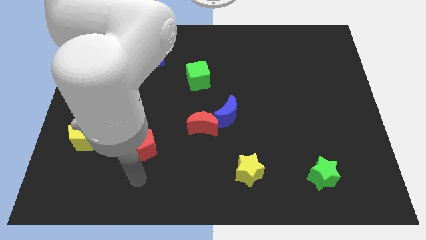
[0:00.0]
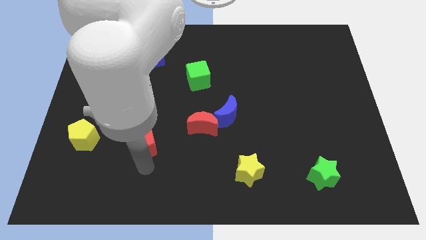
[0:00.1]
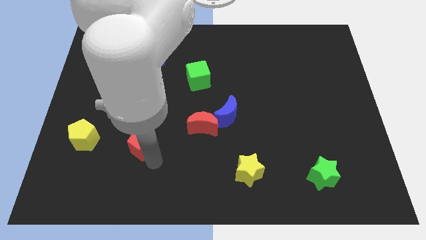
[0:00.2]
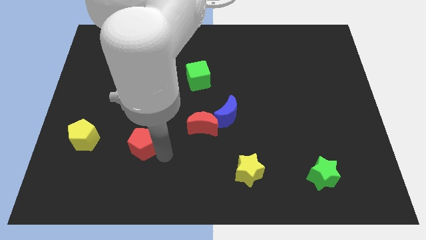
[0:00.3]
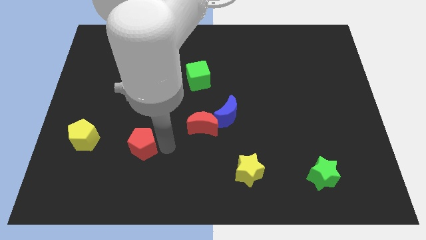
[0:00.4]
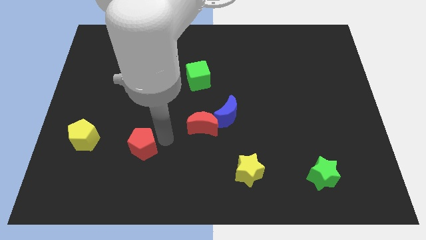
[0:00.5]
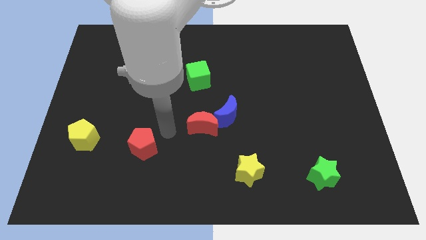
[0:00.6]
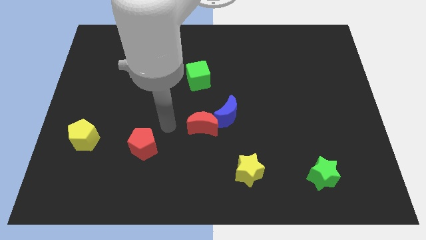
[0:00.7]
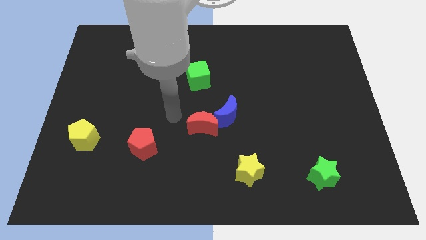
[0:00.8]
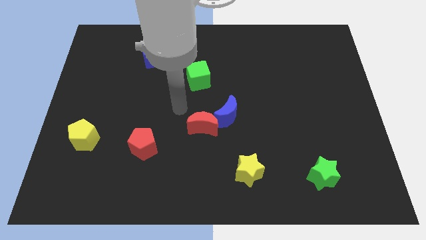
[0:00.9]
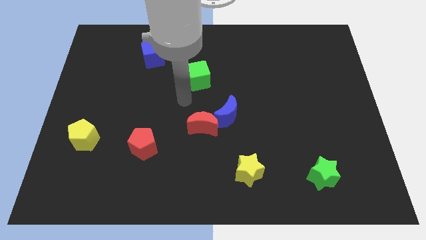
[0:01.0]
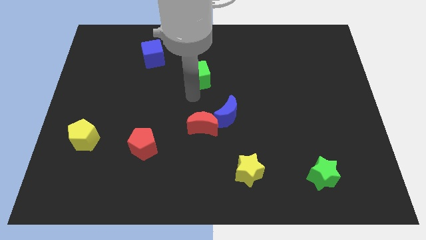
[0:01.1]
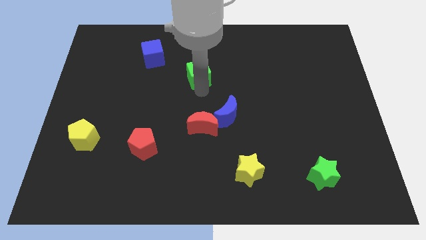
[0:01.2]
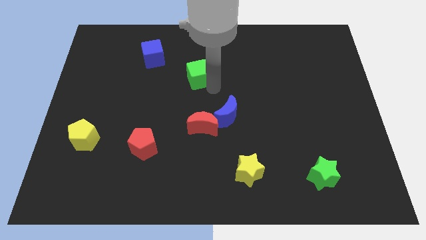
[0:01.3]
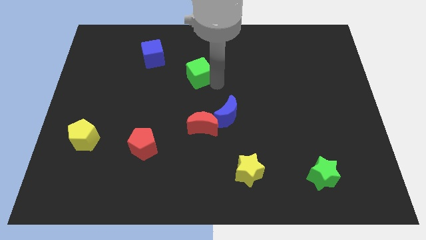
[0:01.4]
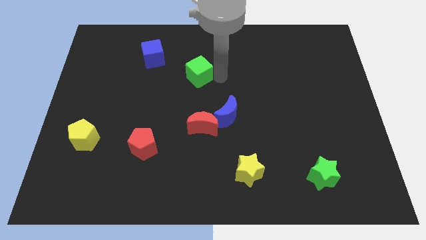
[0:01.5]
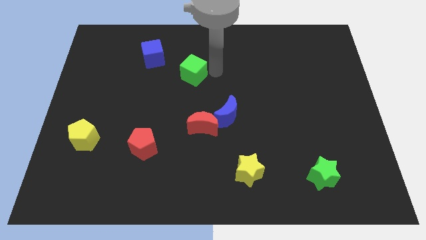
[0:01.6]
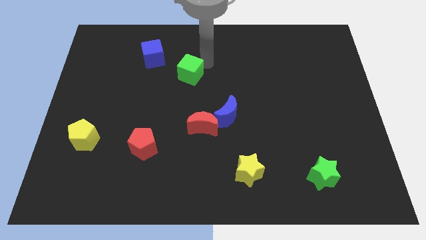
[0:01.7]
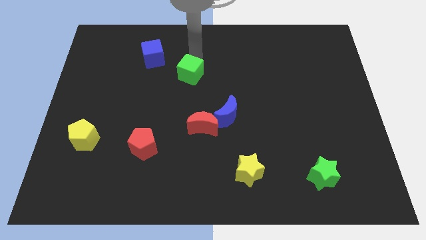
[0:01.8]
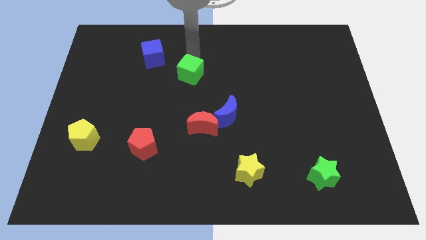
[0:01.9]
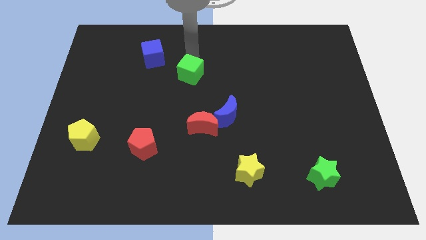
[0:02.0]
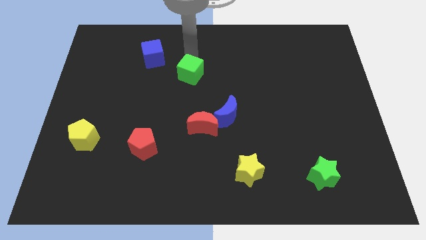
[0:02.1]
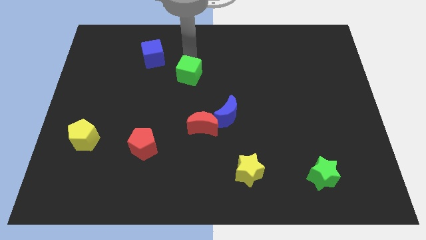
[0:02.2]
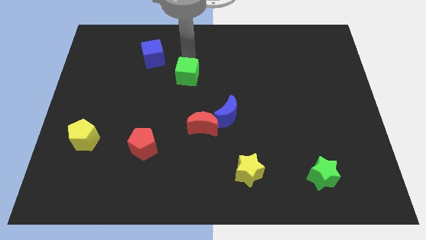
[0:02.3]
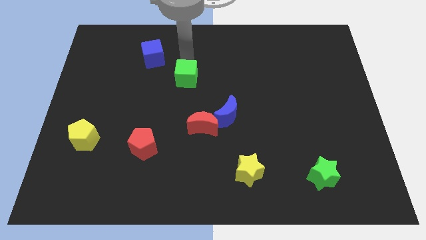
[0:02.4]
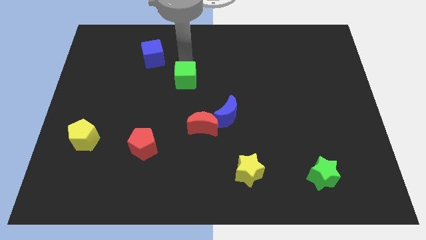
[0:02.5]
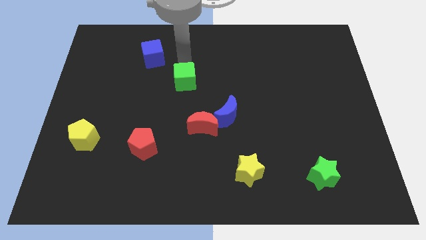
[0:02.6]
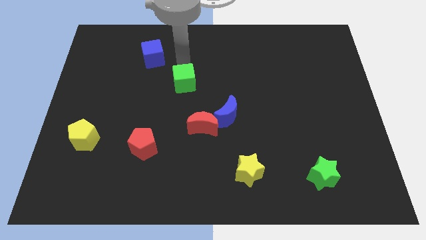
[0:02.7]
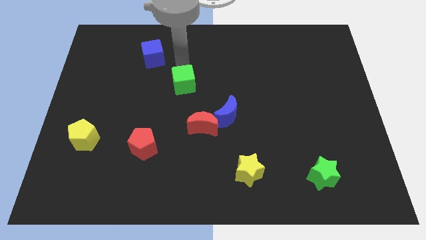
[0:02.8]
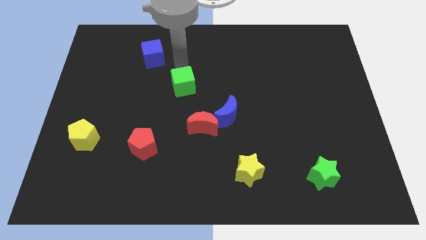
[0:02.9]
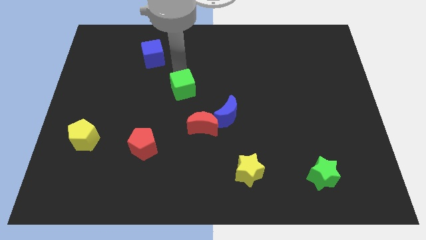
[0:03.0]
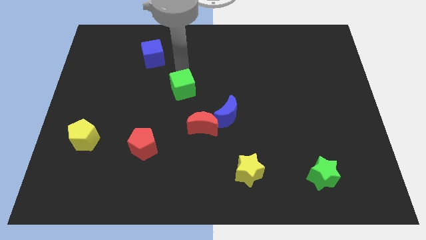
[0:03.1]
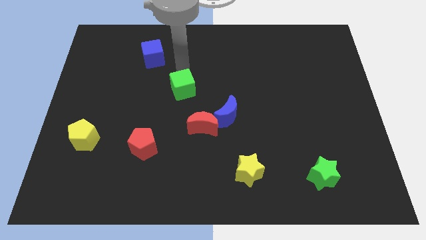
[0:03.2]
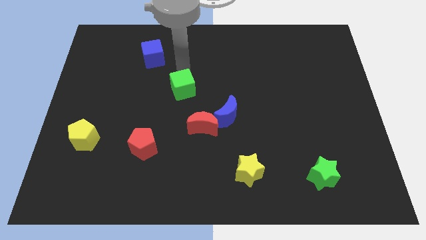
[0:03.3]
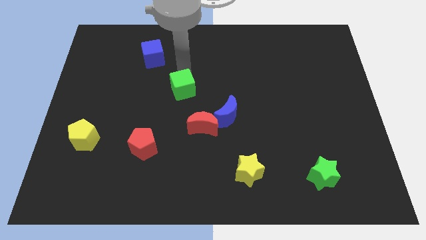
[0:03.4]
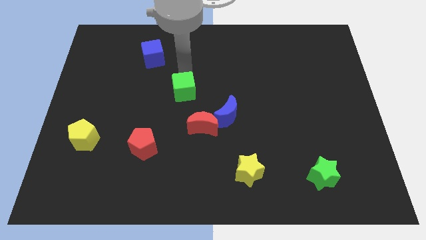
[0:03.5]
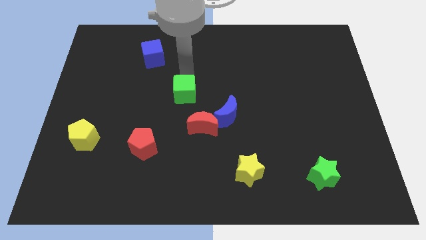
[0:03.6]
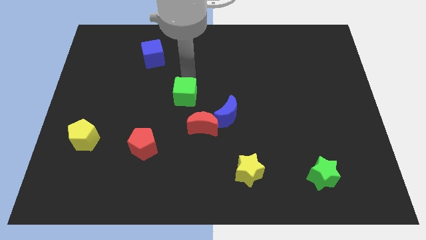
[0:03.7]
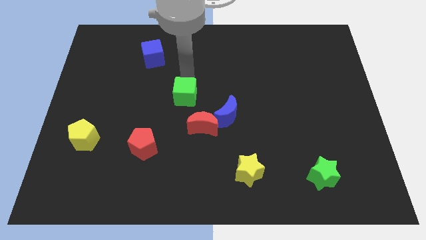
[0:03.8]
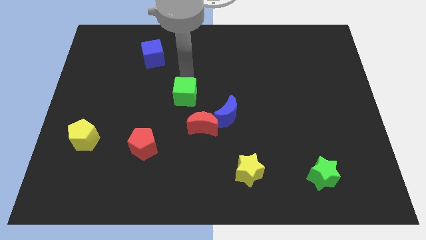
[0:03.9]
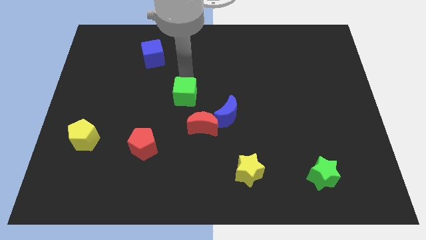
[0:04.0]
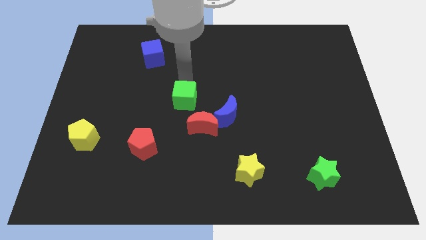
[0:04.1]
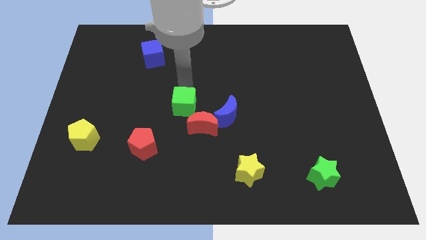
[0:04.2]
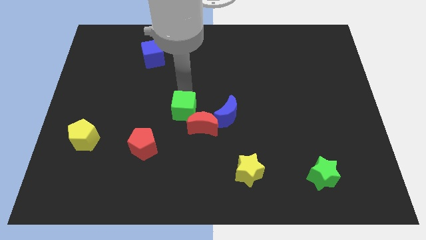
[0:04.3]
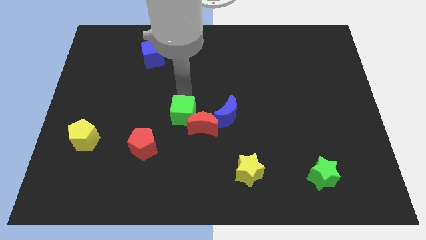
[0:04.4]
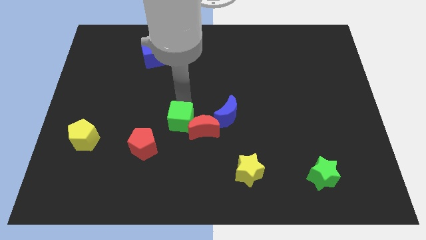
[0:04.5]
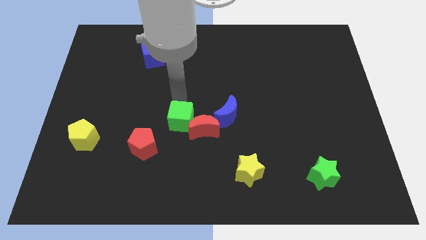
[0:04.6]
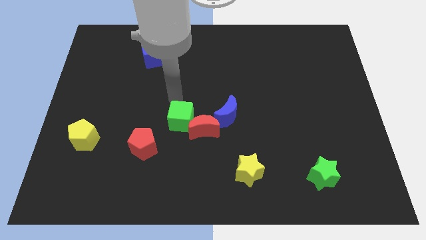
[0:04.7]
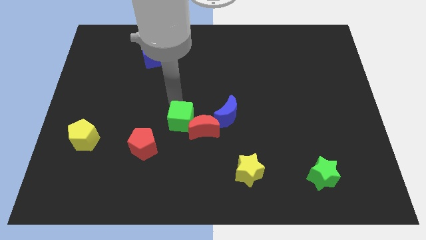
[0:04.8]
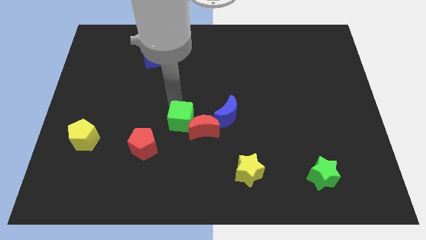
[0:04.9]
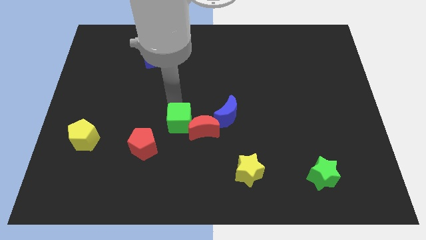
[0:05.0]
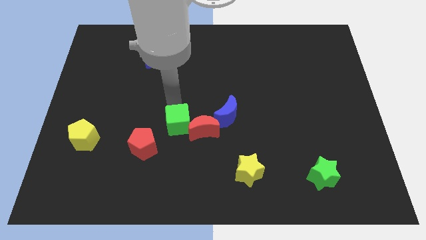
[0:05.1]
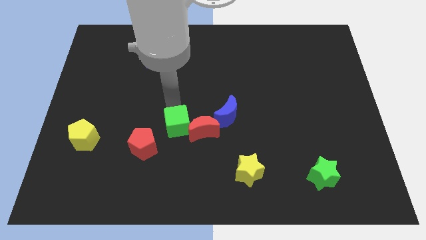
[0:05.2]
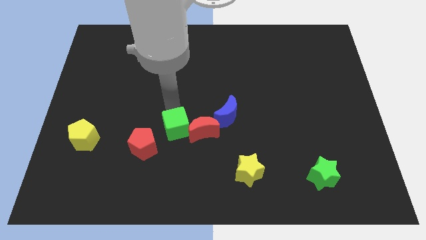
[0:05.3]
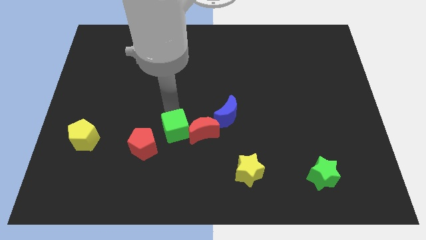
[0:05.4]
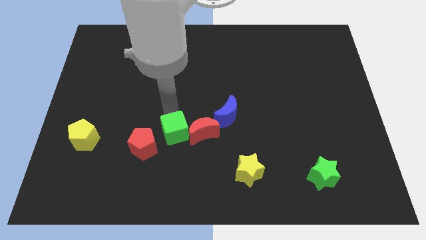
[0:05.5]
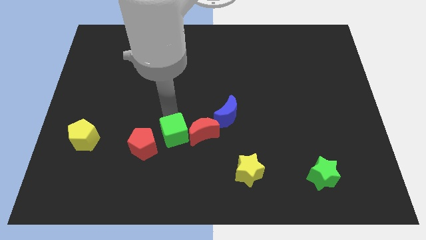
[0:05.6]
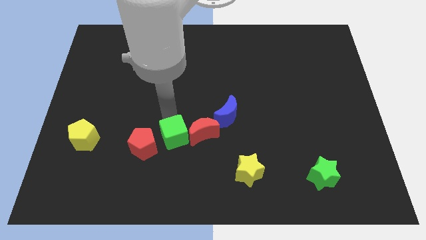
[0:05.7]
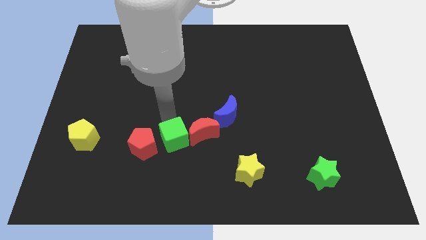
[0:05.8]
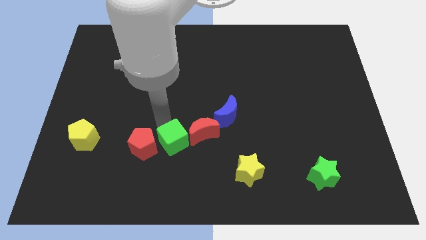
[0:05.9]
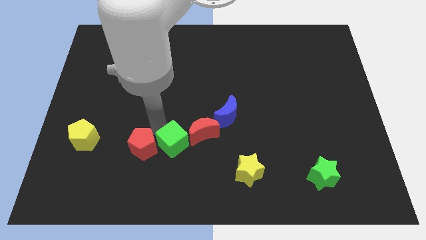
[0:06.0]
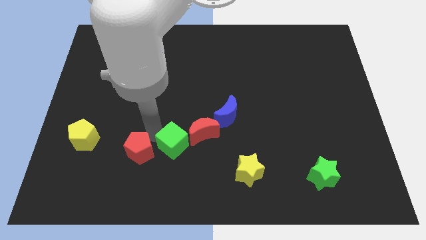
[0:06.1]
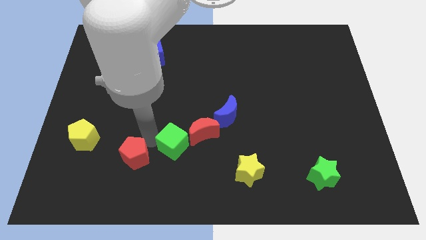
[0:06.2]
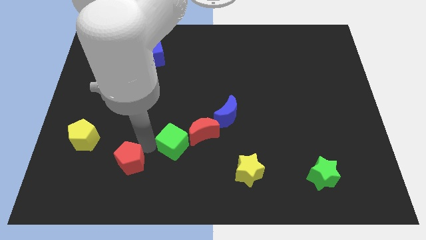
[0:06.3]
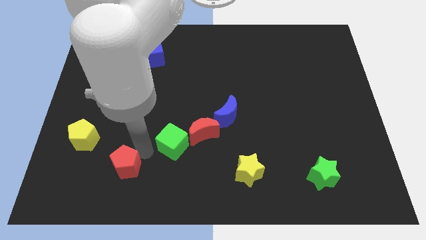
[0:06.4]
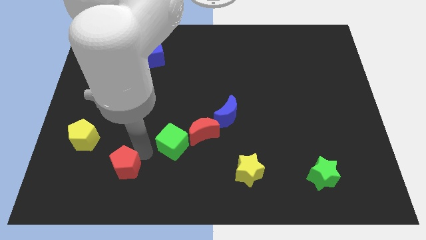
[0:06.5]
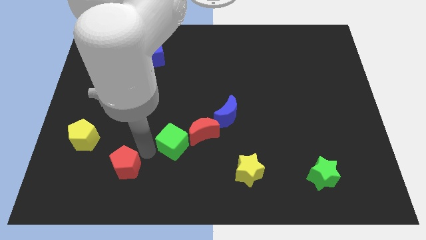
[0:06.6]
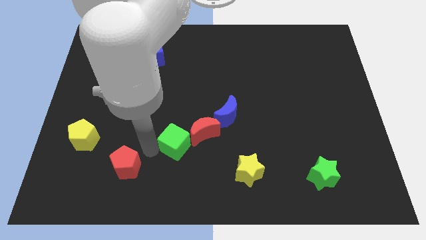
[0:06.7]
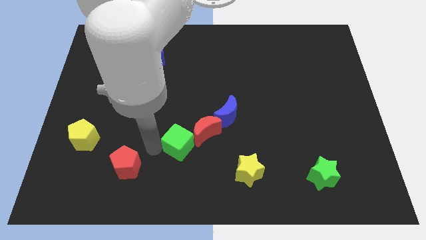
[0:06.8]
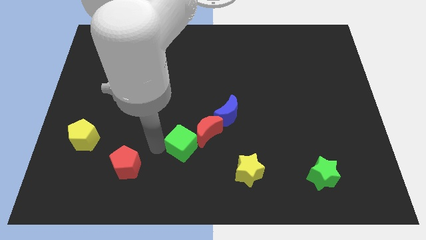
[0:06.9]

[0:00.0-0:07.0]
move the green cube to the bottom left side of the blue moon

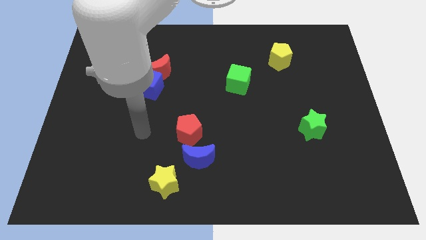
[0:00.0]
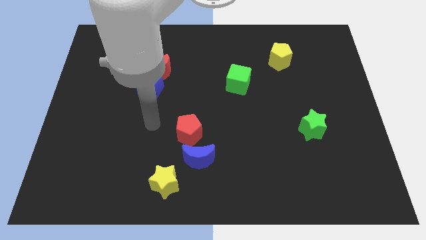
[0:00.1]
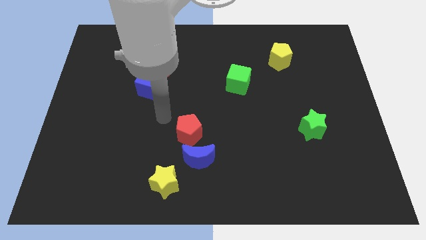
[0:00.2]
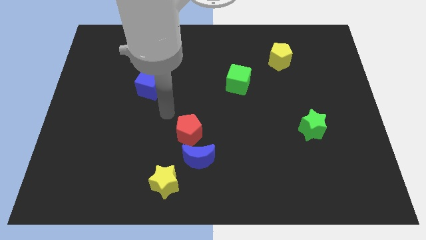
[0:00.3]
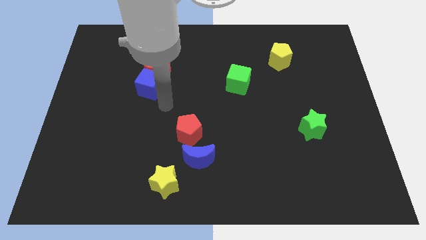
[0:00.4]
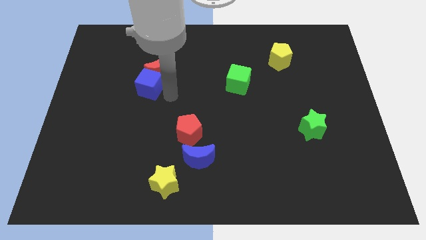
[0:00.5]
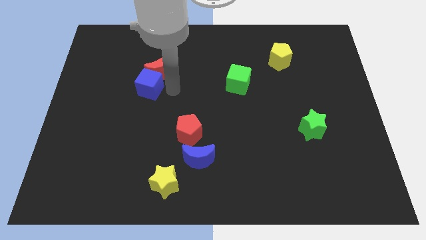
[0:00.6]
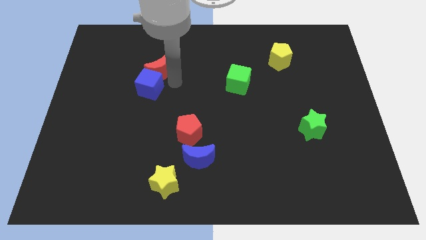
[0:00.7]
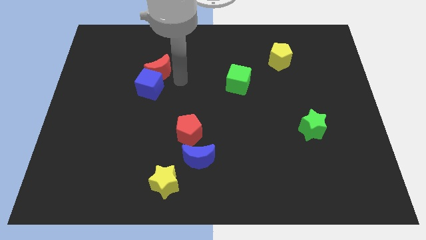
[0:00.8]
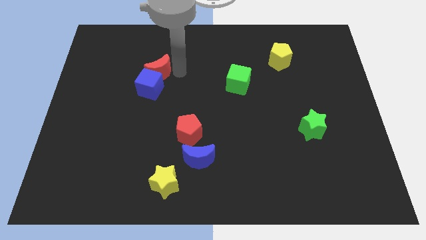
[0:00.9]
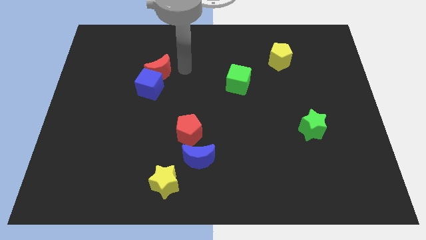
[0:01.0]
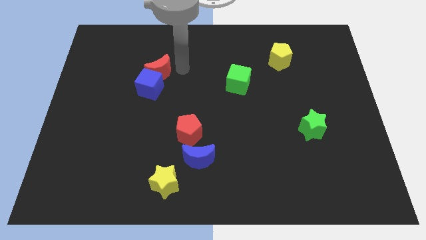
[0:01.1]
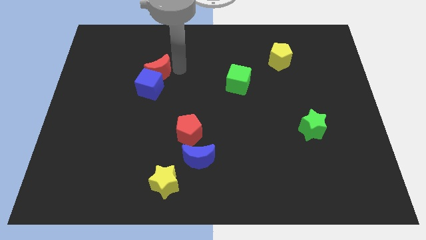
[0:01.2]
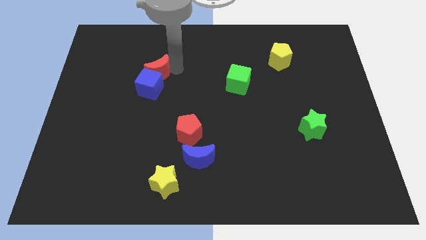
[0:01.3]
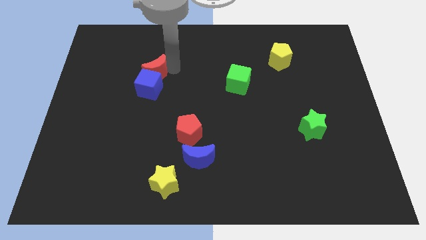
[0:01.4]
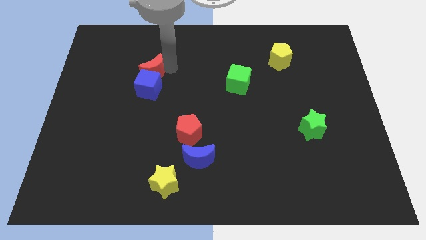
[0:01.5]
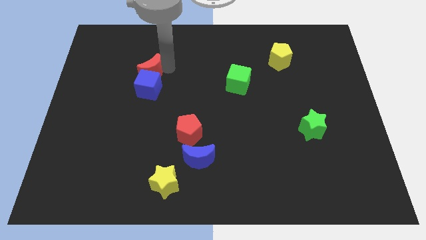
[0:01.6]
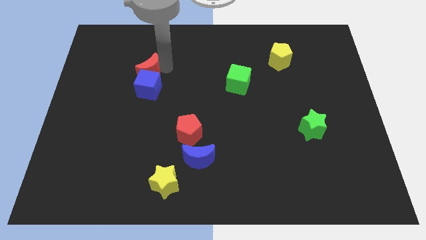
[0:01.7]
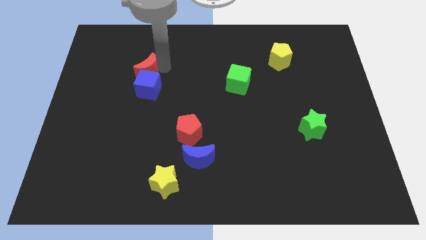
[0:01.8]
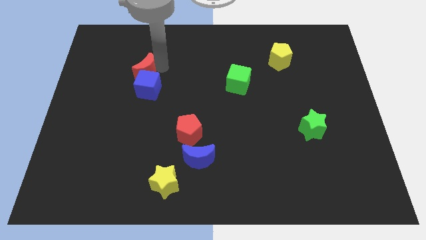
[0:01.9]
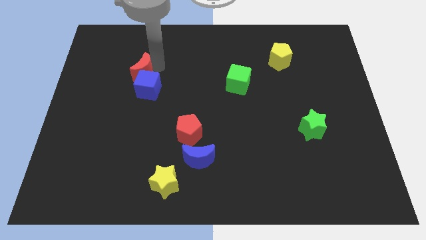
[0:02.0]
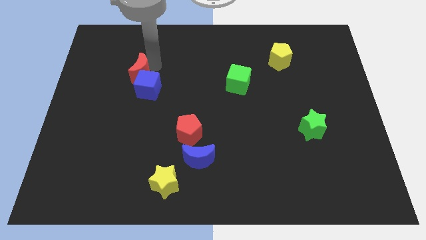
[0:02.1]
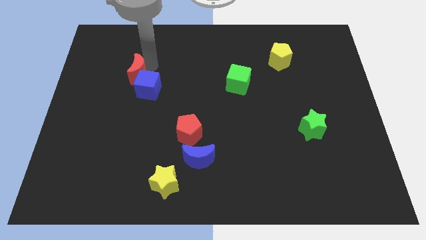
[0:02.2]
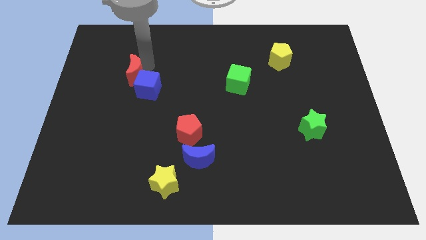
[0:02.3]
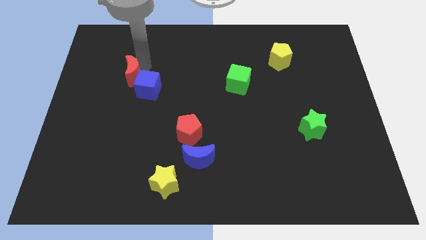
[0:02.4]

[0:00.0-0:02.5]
move the red moon just left of the blue cube
